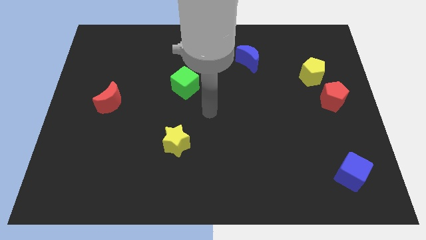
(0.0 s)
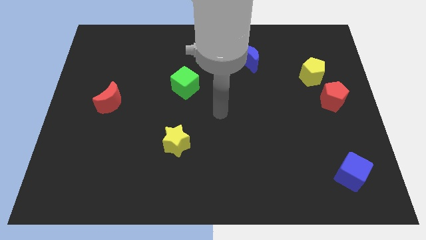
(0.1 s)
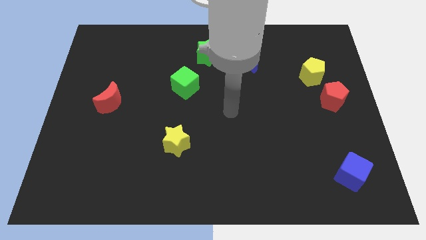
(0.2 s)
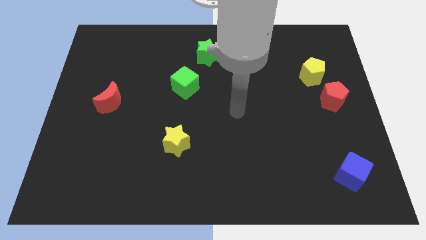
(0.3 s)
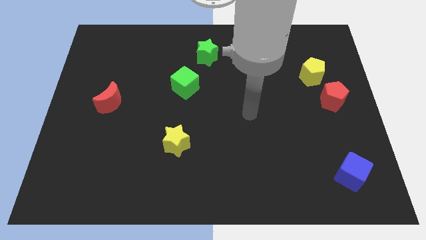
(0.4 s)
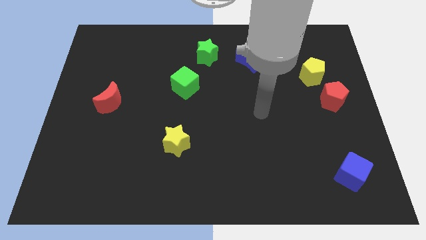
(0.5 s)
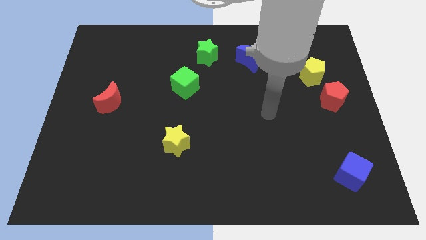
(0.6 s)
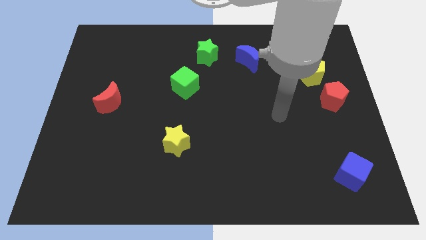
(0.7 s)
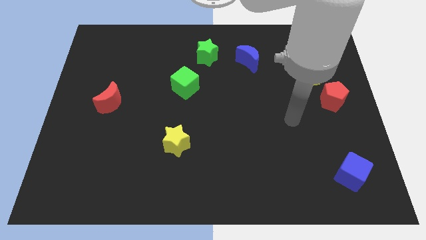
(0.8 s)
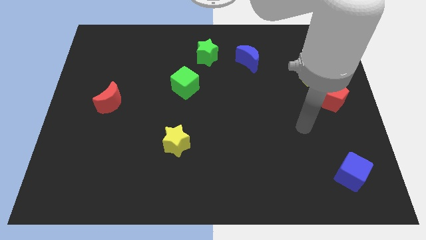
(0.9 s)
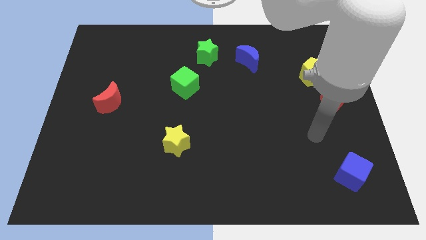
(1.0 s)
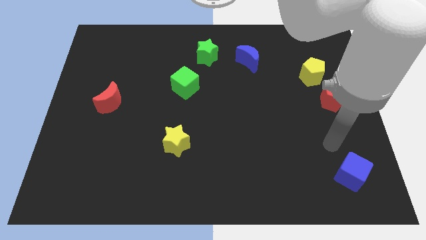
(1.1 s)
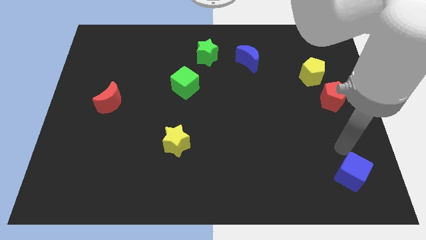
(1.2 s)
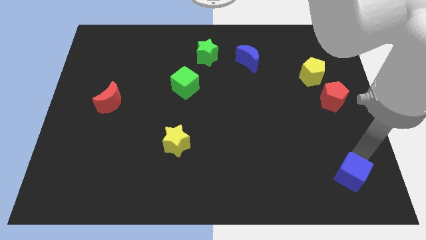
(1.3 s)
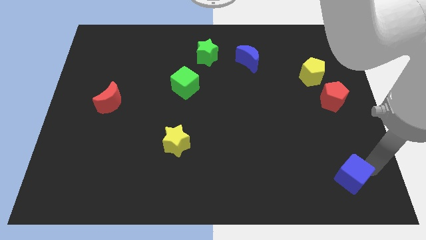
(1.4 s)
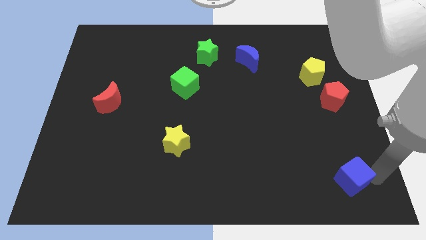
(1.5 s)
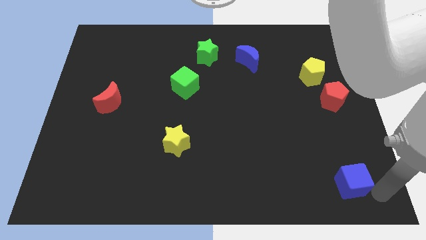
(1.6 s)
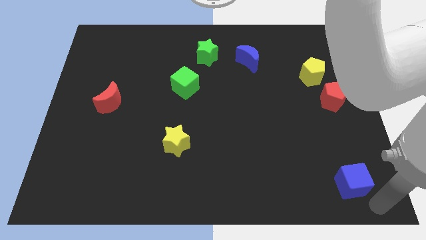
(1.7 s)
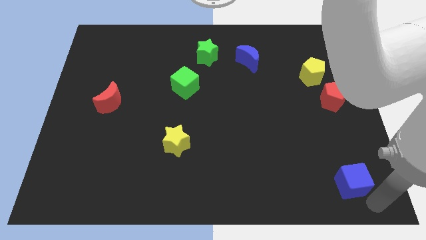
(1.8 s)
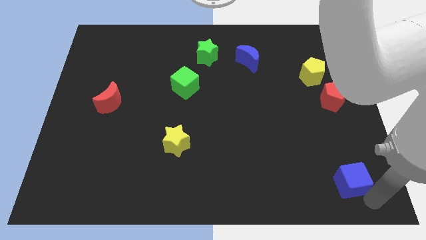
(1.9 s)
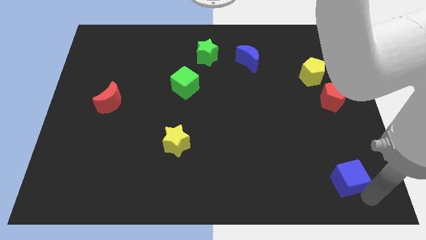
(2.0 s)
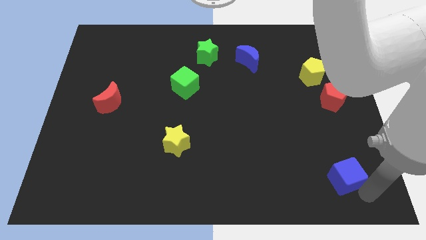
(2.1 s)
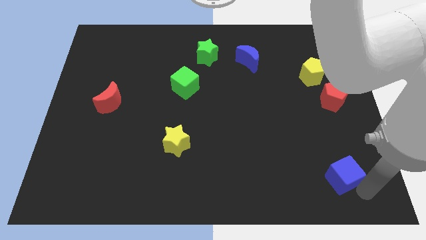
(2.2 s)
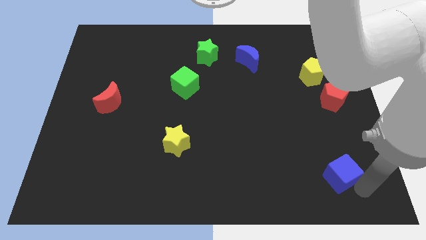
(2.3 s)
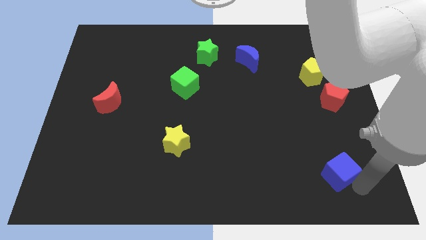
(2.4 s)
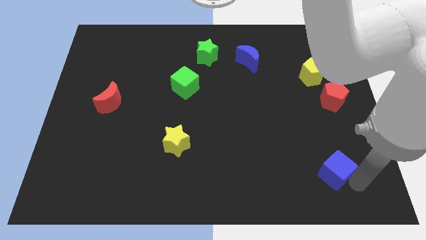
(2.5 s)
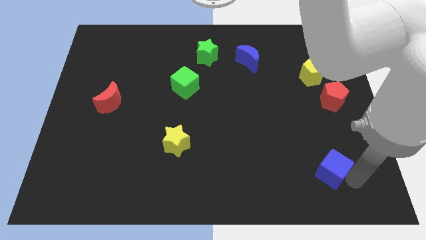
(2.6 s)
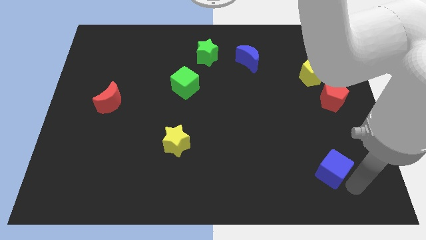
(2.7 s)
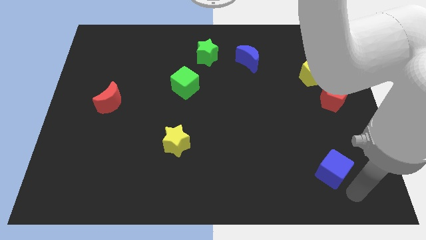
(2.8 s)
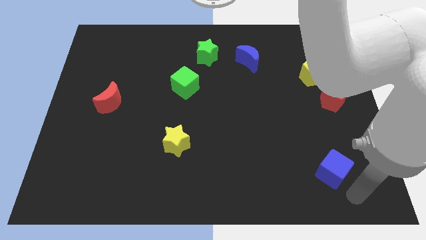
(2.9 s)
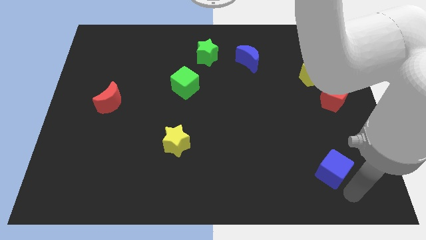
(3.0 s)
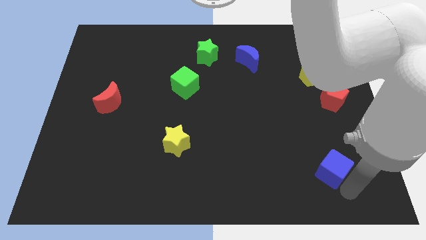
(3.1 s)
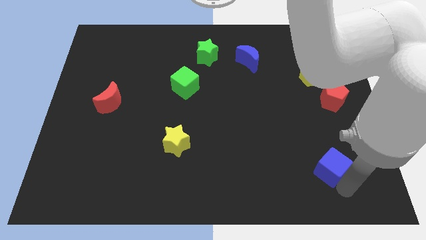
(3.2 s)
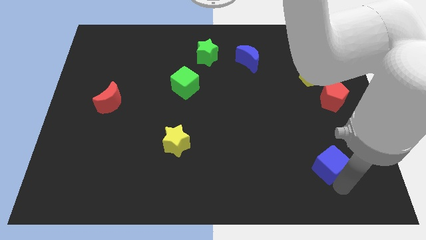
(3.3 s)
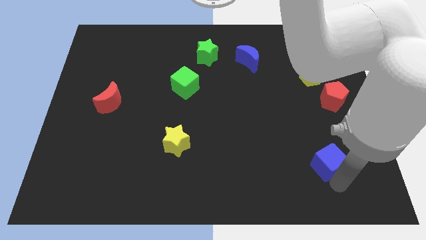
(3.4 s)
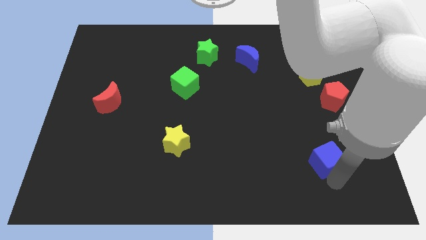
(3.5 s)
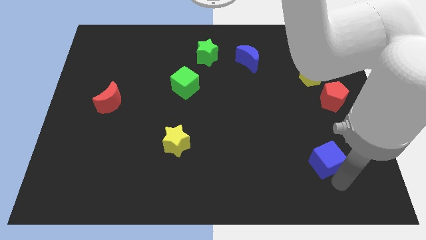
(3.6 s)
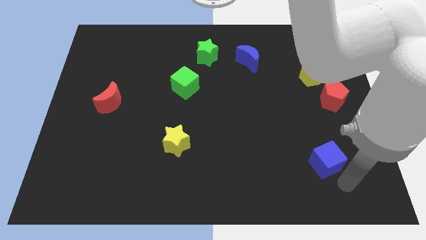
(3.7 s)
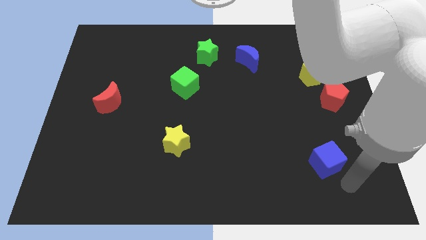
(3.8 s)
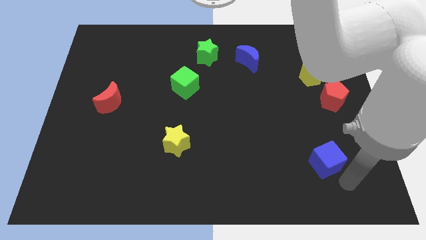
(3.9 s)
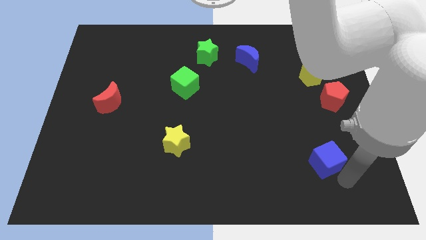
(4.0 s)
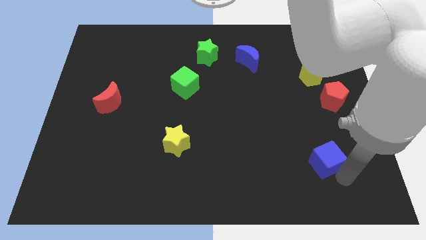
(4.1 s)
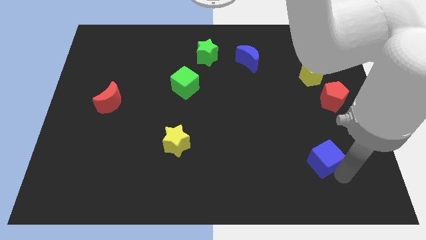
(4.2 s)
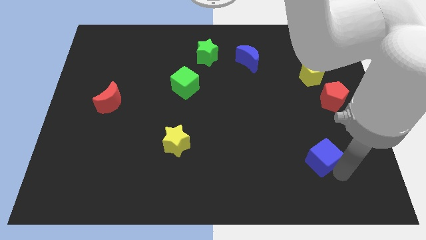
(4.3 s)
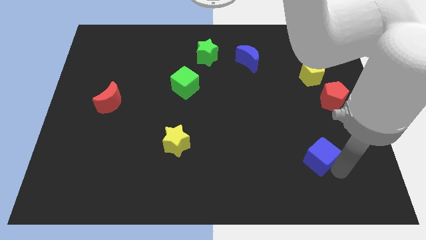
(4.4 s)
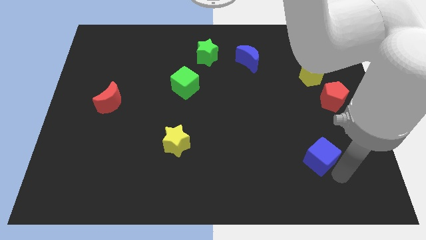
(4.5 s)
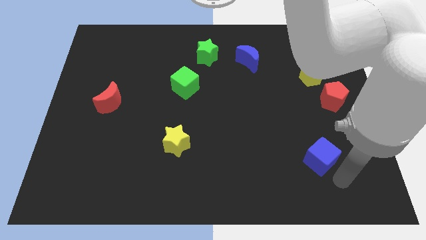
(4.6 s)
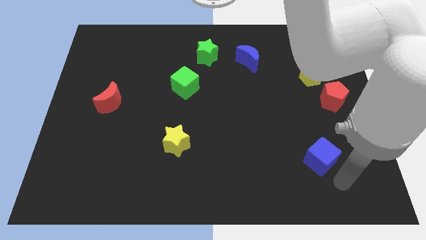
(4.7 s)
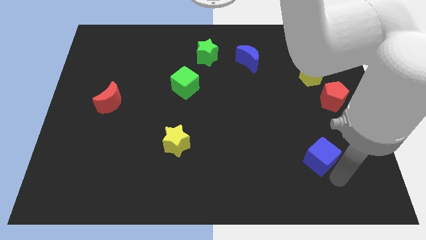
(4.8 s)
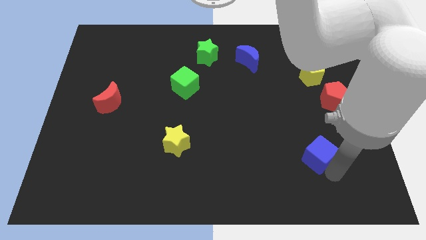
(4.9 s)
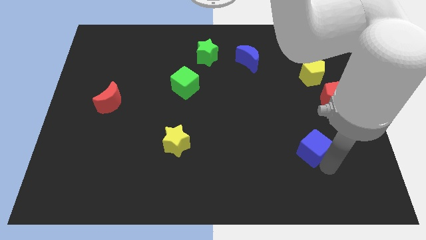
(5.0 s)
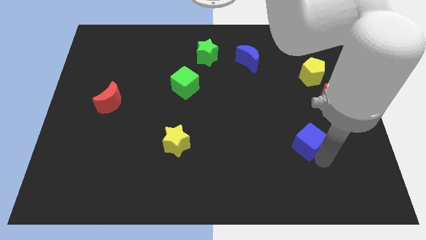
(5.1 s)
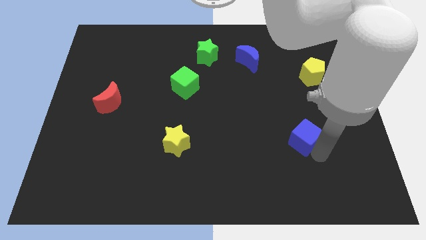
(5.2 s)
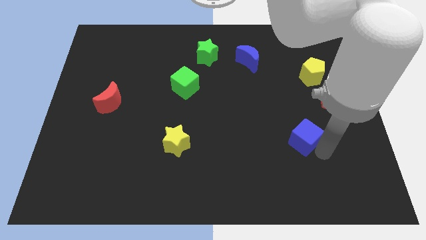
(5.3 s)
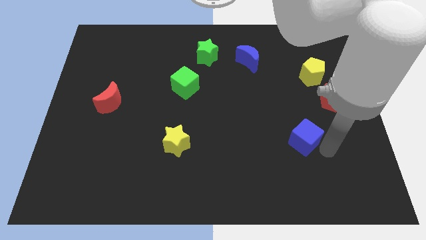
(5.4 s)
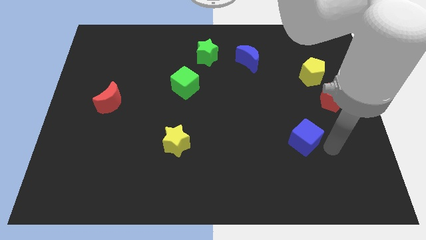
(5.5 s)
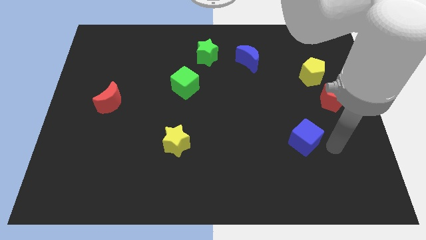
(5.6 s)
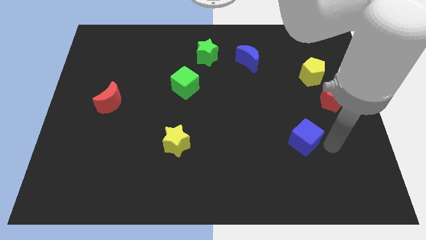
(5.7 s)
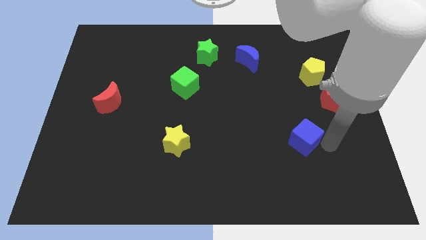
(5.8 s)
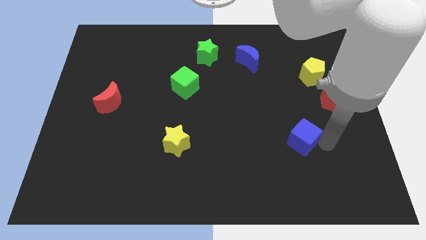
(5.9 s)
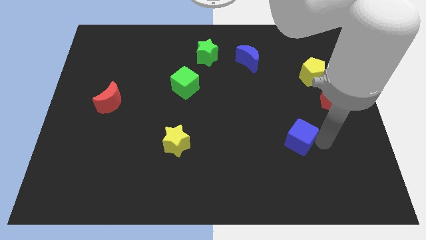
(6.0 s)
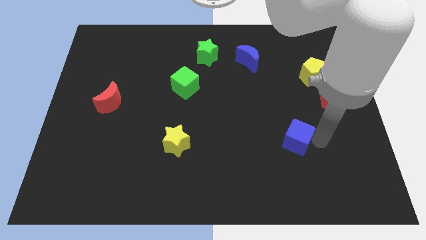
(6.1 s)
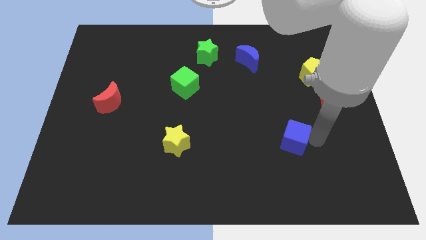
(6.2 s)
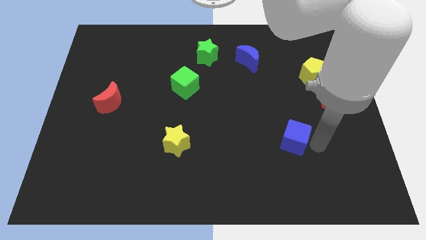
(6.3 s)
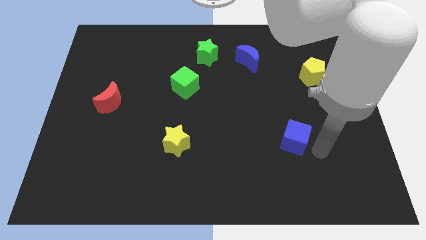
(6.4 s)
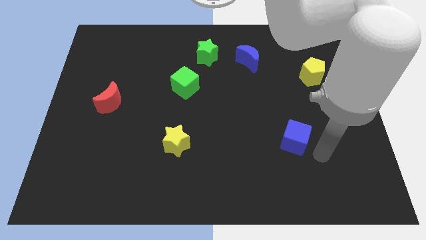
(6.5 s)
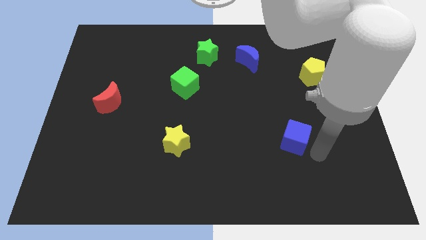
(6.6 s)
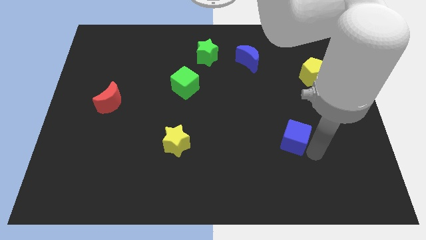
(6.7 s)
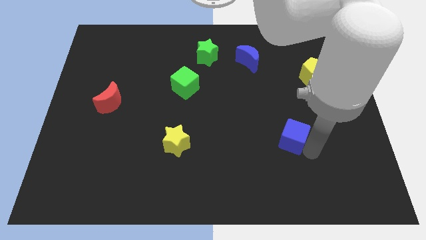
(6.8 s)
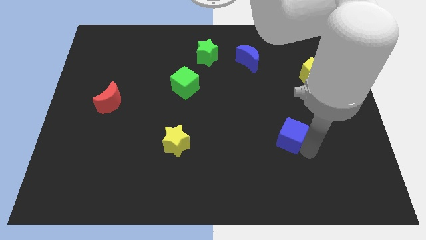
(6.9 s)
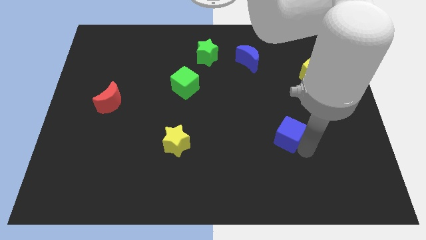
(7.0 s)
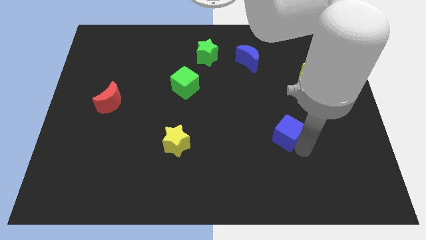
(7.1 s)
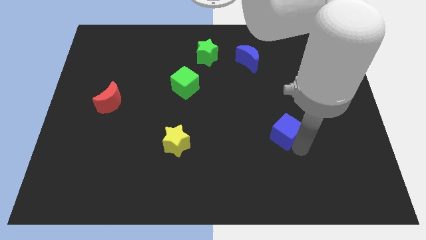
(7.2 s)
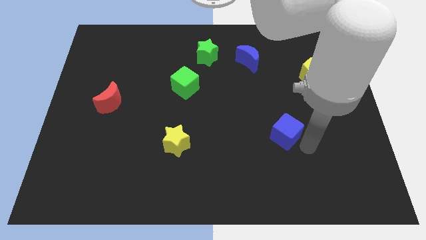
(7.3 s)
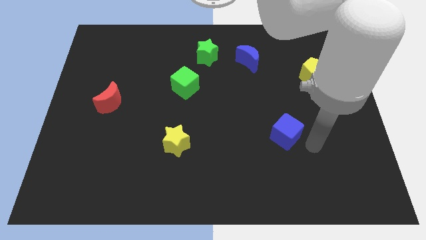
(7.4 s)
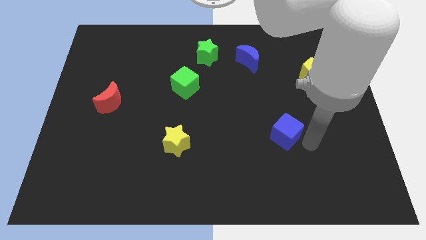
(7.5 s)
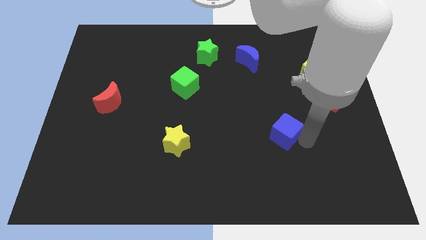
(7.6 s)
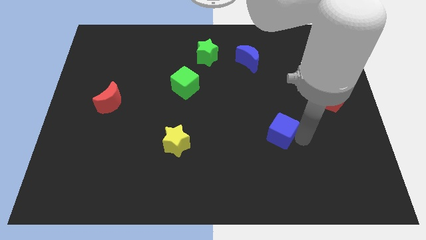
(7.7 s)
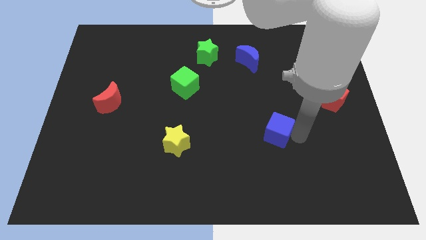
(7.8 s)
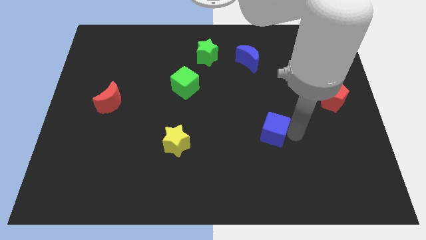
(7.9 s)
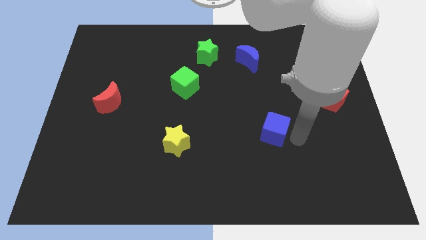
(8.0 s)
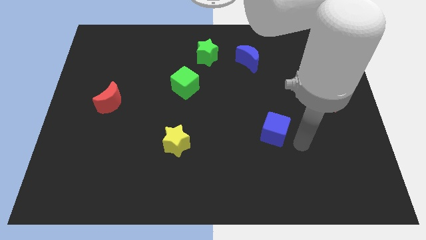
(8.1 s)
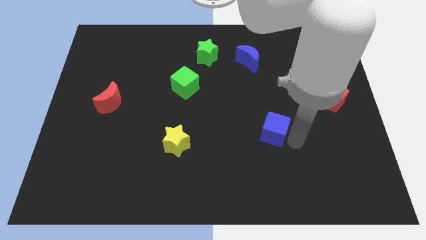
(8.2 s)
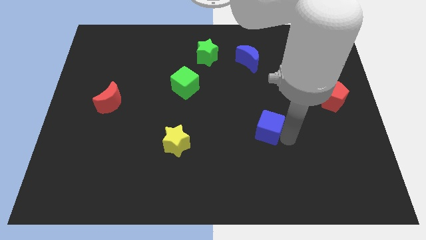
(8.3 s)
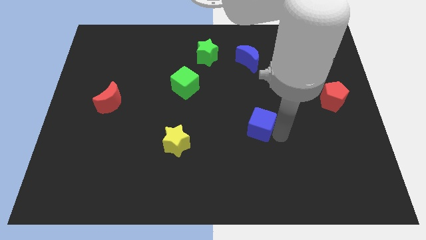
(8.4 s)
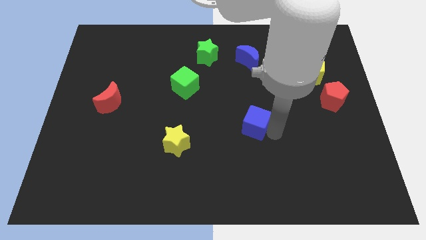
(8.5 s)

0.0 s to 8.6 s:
move the blue cube to the center
